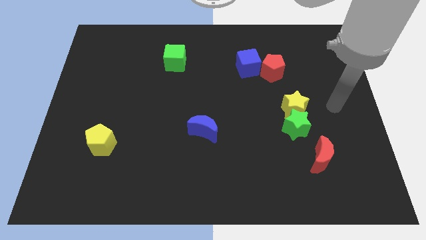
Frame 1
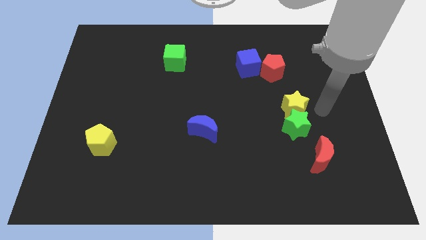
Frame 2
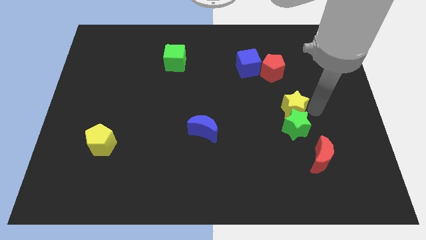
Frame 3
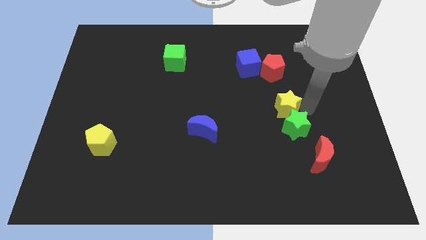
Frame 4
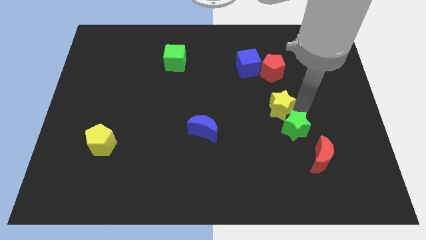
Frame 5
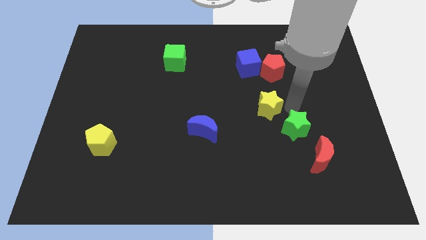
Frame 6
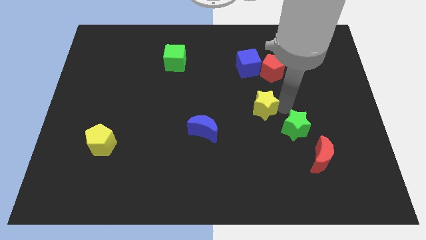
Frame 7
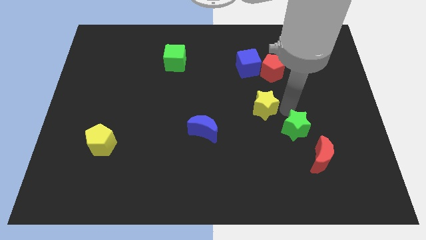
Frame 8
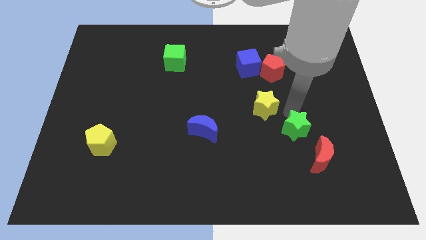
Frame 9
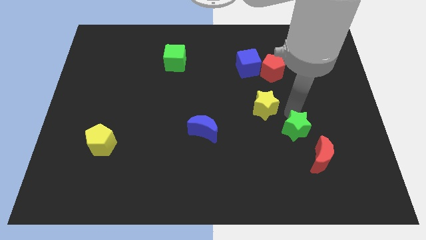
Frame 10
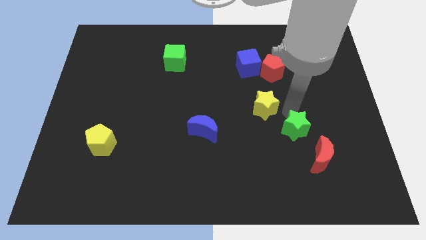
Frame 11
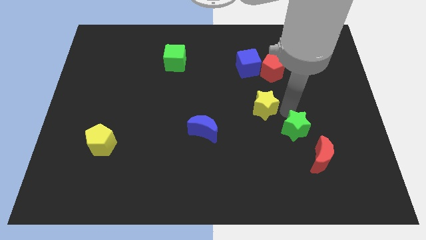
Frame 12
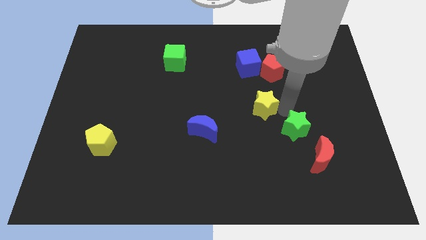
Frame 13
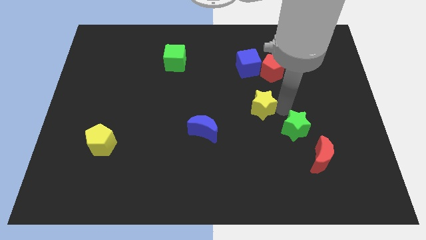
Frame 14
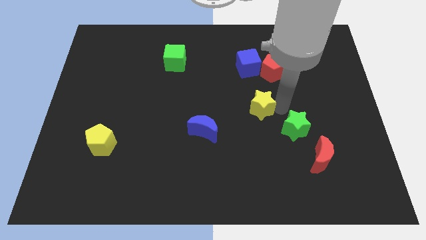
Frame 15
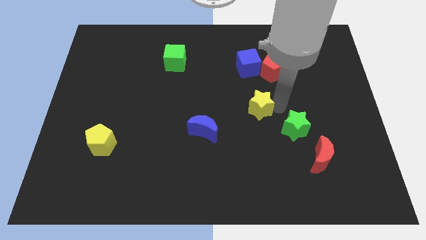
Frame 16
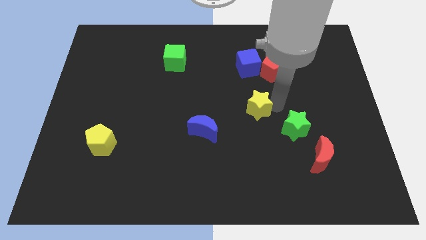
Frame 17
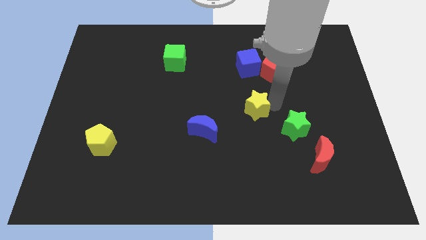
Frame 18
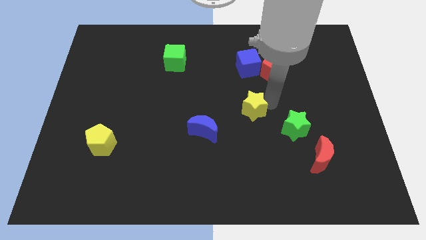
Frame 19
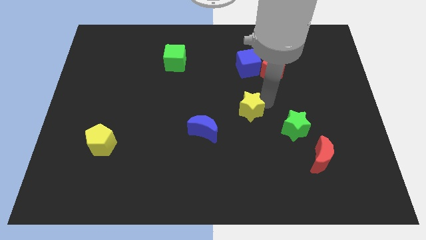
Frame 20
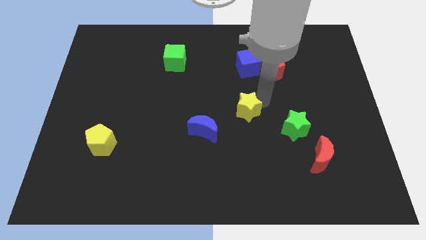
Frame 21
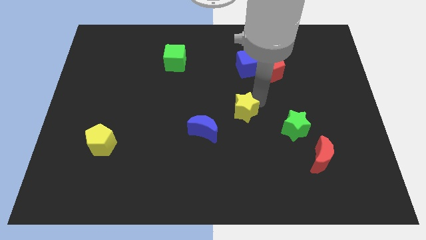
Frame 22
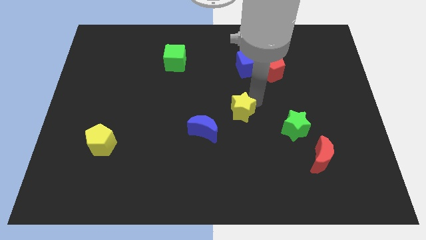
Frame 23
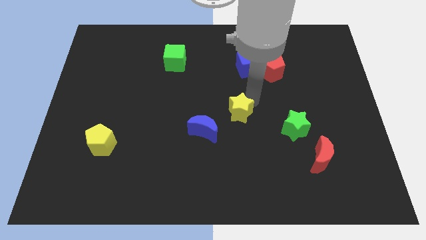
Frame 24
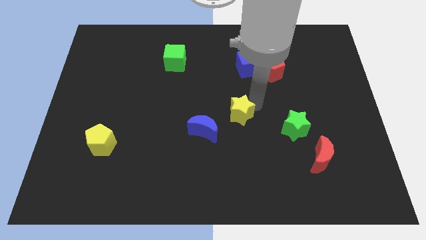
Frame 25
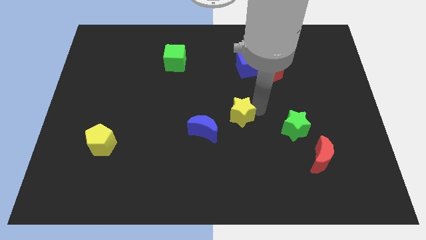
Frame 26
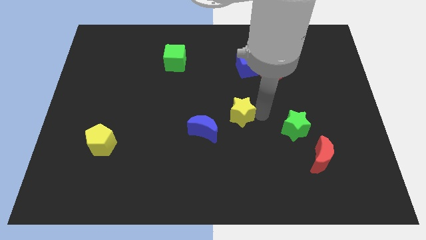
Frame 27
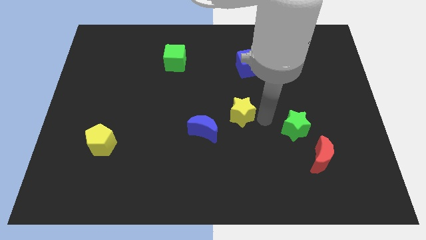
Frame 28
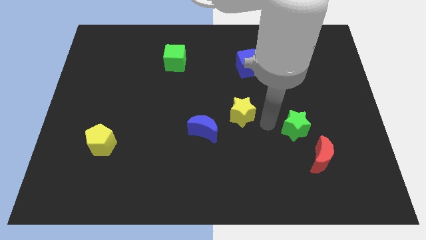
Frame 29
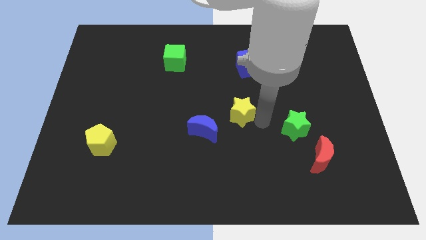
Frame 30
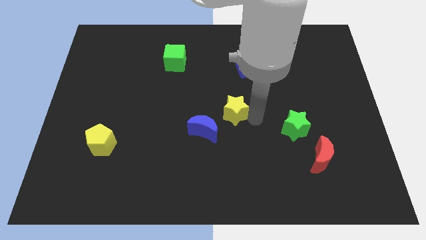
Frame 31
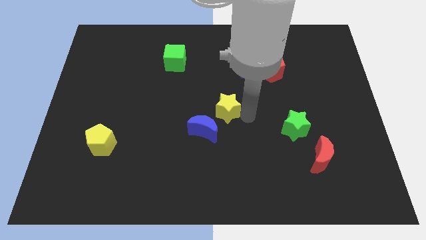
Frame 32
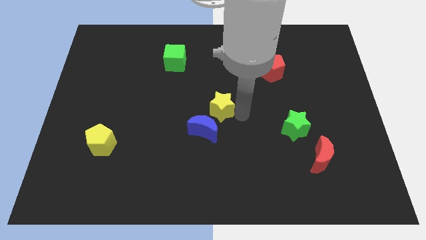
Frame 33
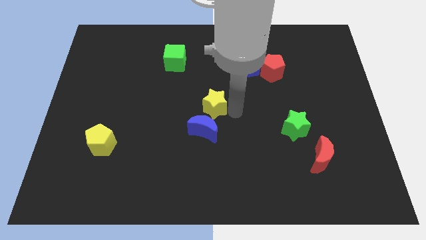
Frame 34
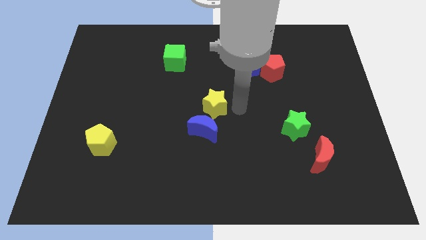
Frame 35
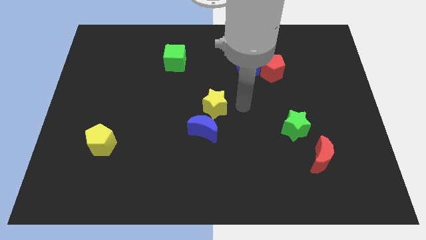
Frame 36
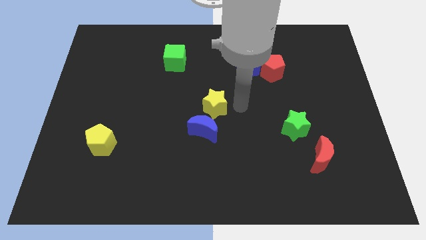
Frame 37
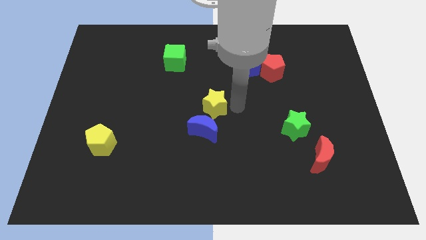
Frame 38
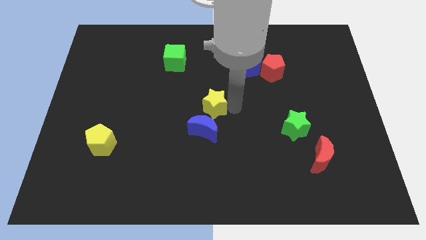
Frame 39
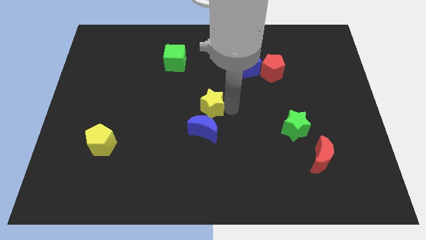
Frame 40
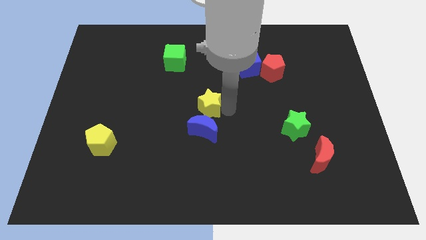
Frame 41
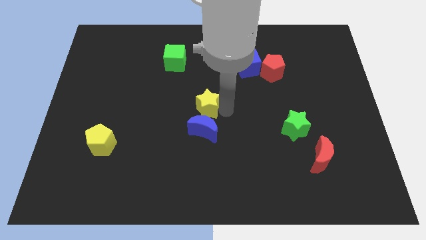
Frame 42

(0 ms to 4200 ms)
move the yellow star left

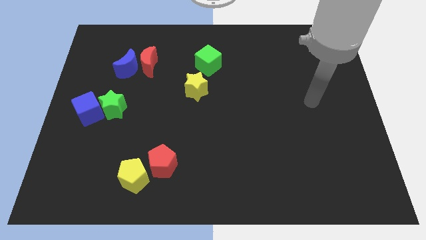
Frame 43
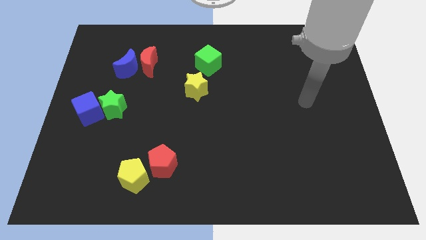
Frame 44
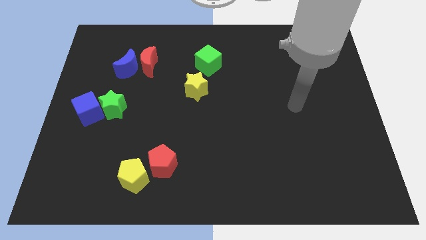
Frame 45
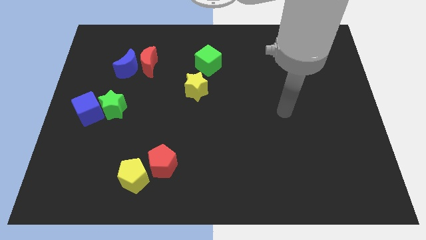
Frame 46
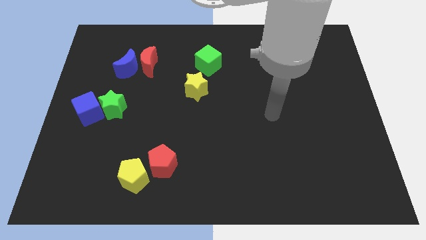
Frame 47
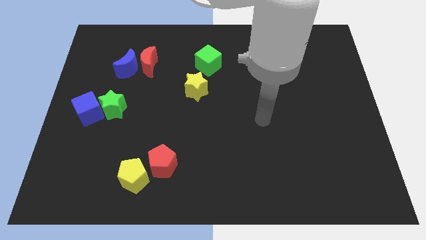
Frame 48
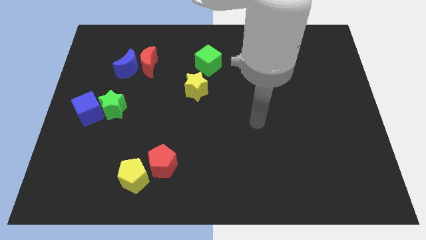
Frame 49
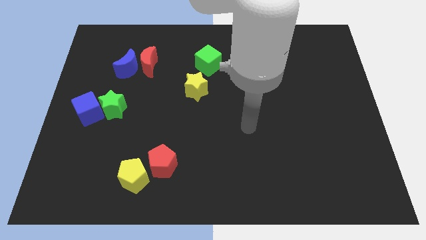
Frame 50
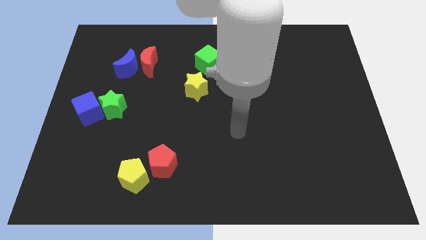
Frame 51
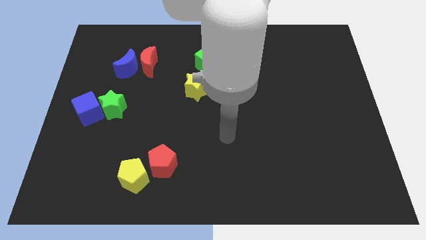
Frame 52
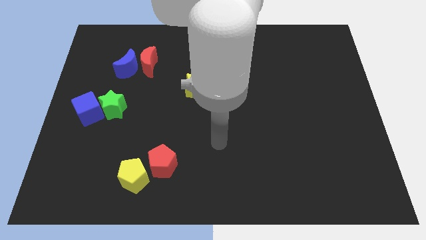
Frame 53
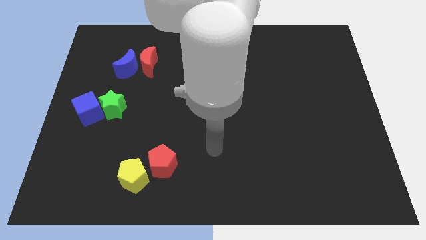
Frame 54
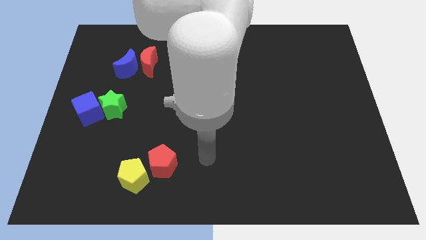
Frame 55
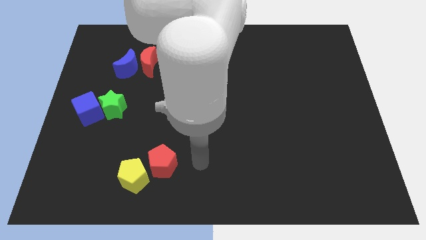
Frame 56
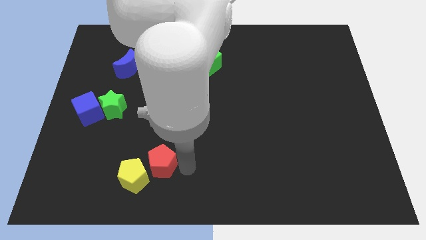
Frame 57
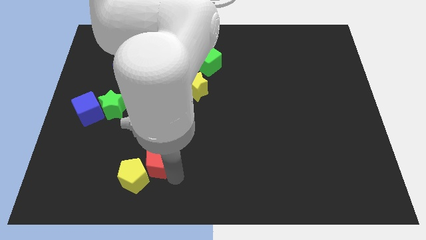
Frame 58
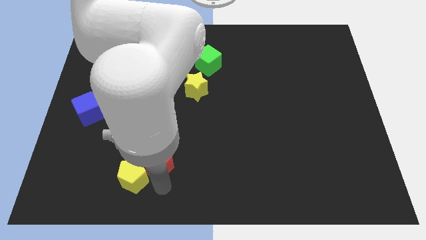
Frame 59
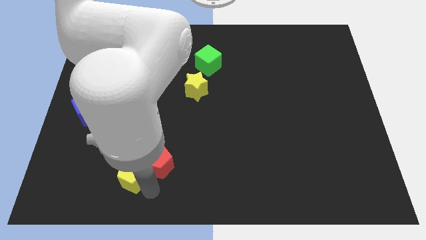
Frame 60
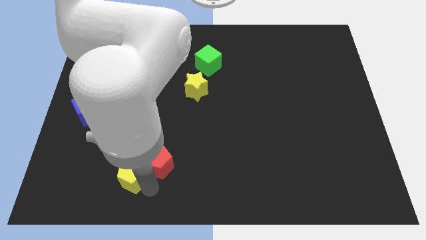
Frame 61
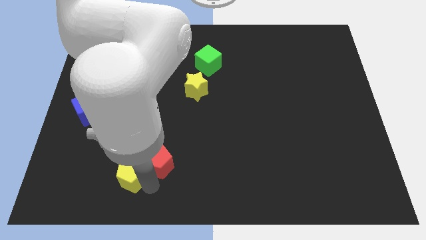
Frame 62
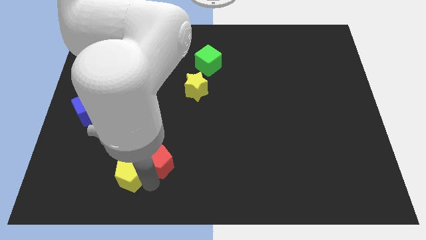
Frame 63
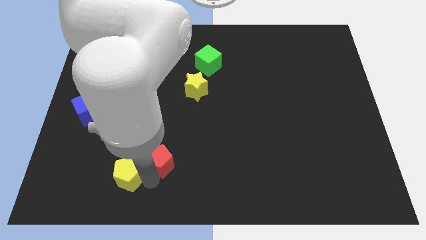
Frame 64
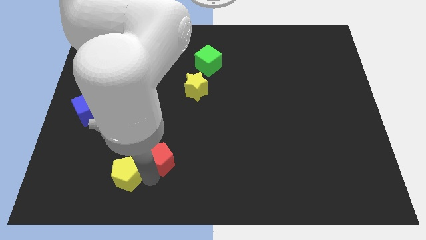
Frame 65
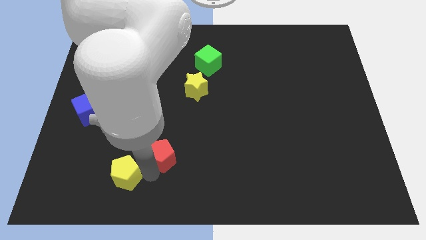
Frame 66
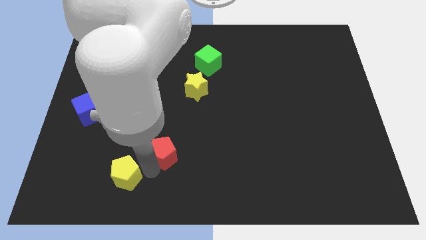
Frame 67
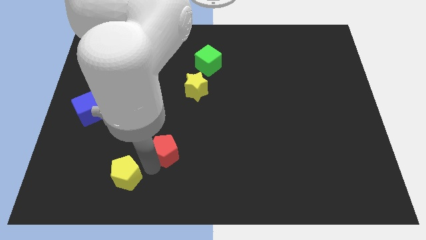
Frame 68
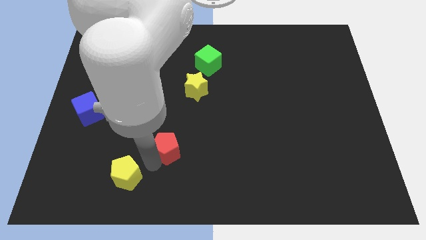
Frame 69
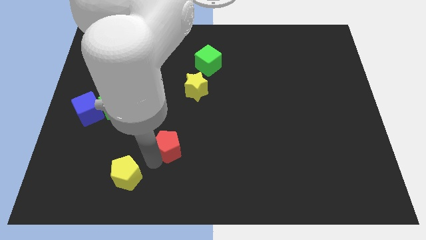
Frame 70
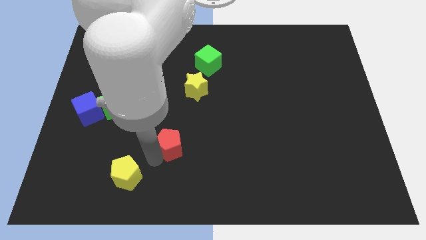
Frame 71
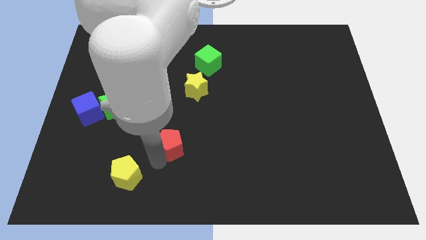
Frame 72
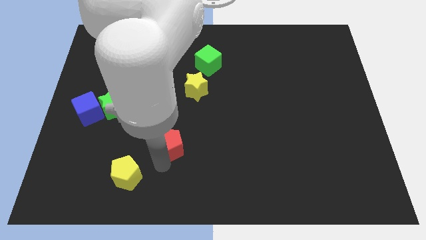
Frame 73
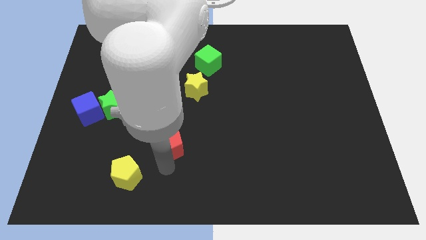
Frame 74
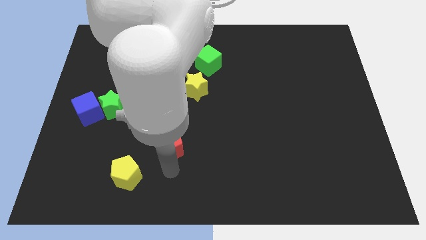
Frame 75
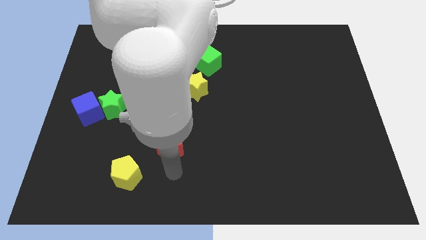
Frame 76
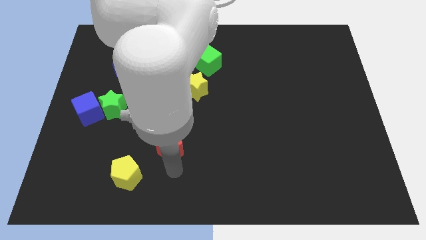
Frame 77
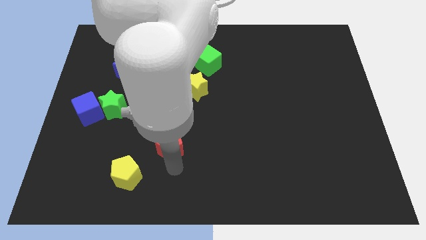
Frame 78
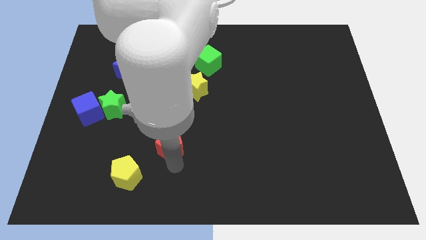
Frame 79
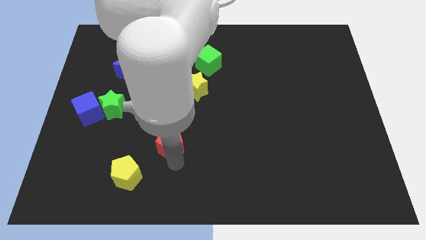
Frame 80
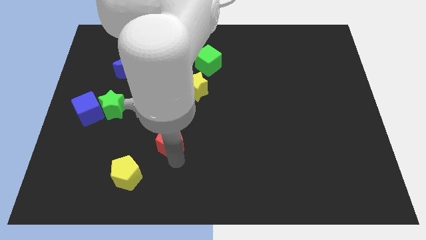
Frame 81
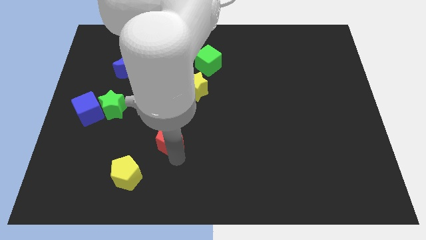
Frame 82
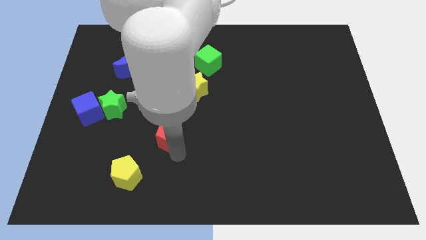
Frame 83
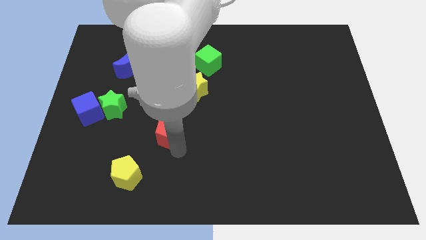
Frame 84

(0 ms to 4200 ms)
slide the red pentagon upwards a little

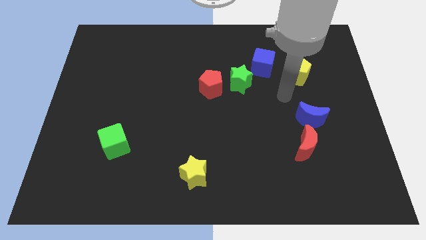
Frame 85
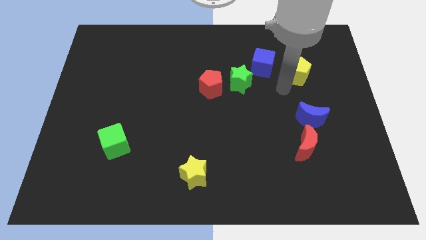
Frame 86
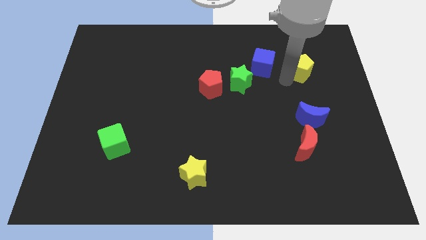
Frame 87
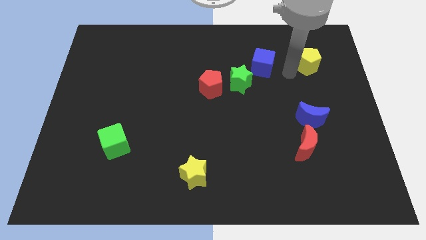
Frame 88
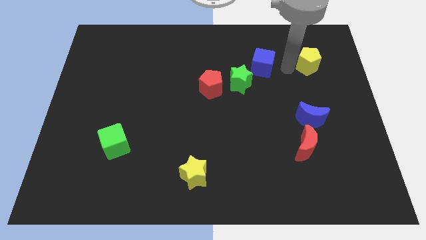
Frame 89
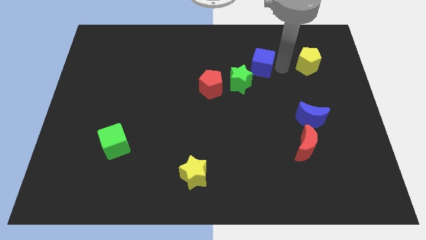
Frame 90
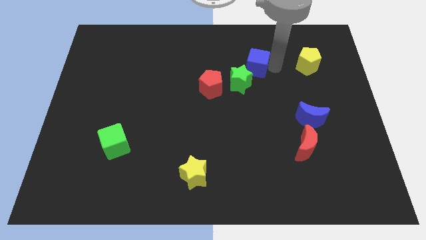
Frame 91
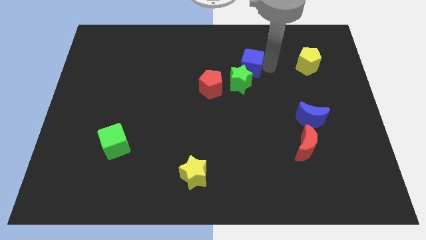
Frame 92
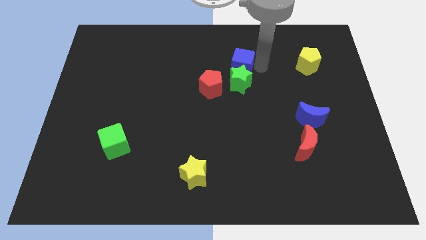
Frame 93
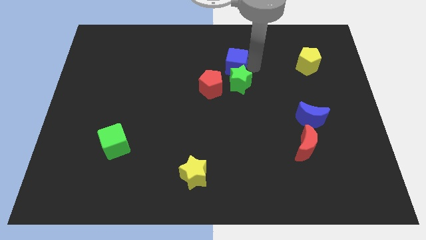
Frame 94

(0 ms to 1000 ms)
slide the blue cube a bit to the left
